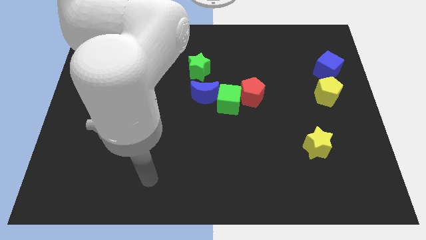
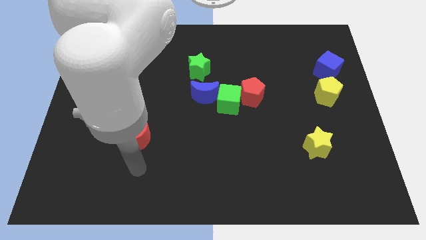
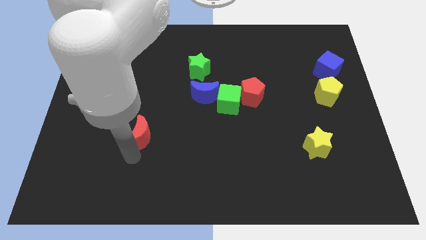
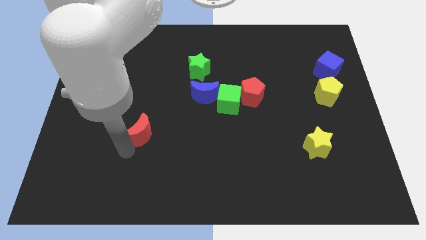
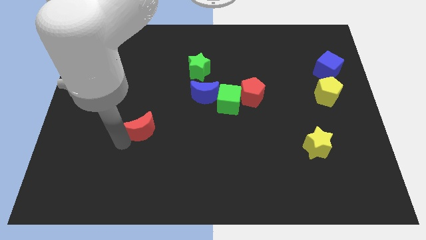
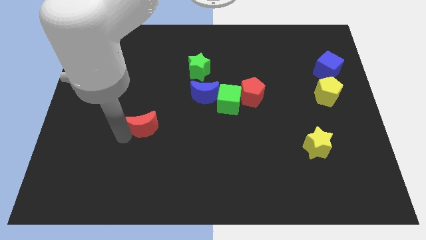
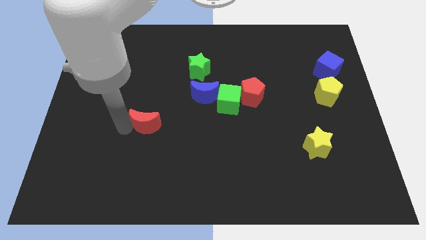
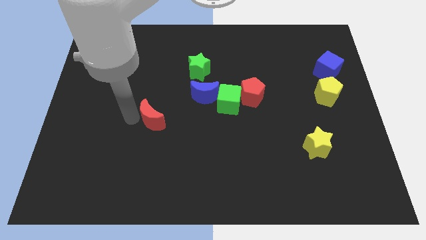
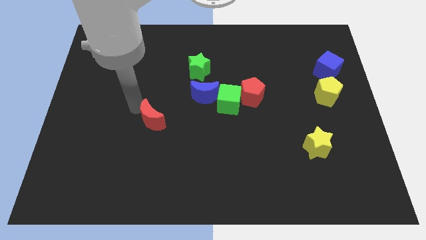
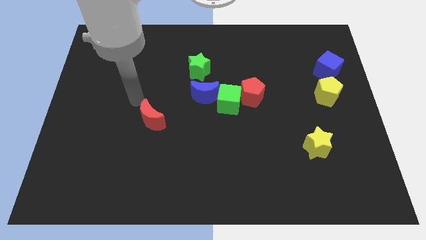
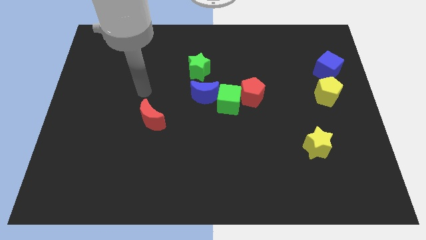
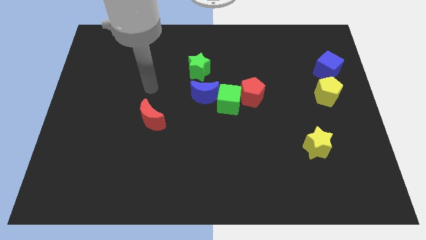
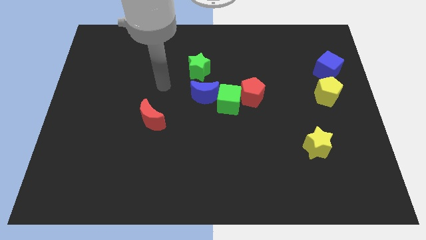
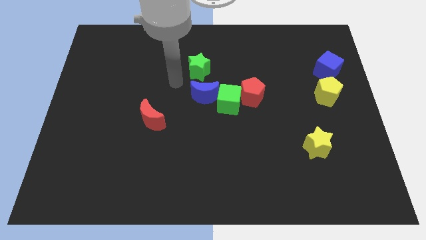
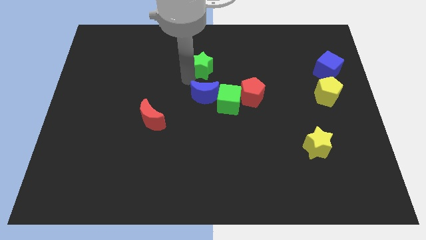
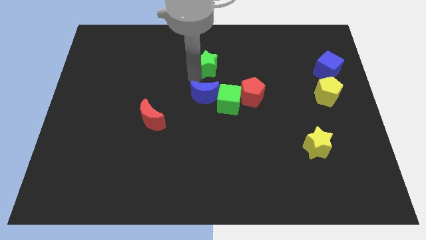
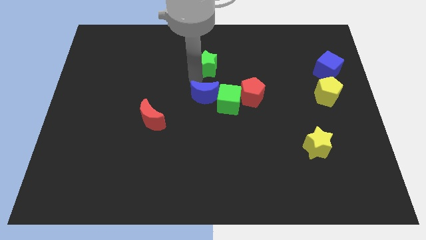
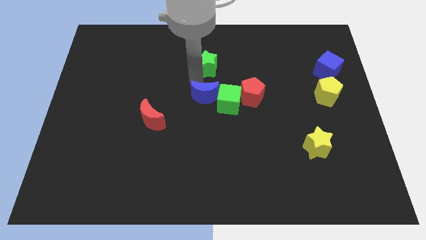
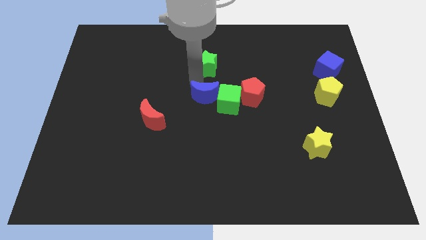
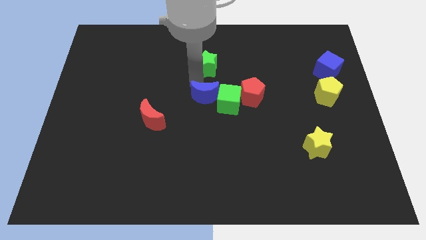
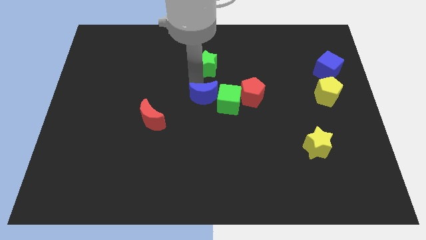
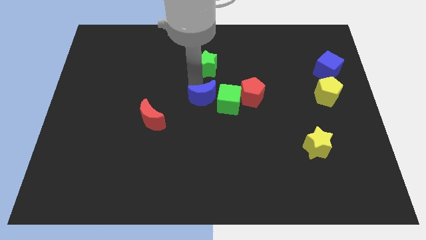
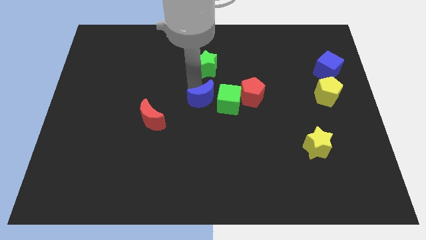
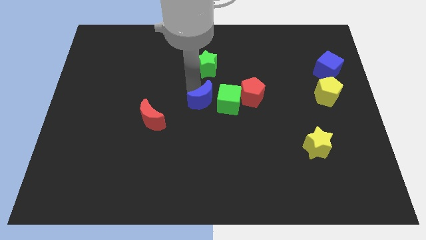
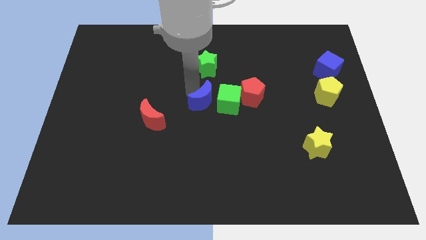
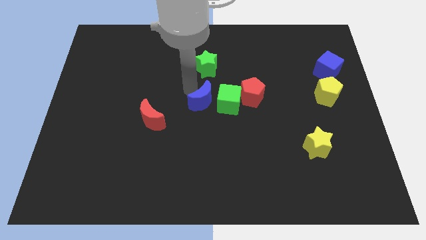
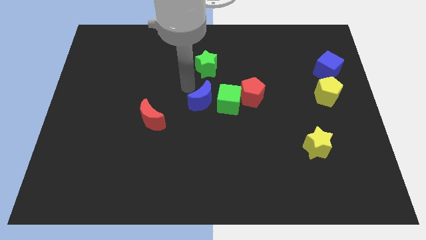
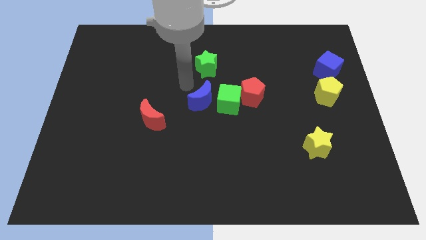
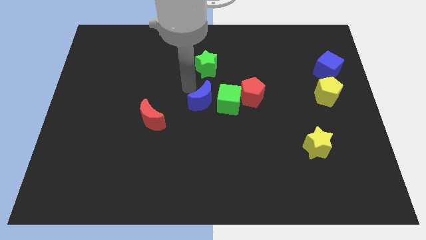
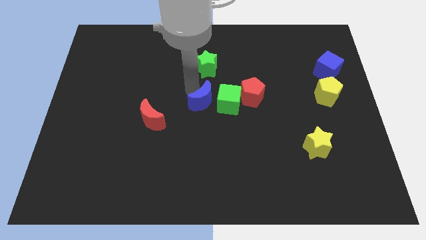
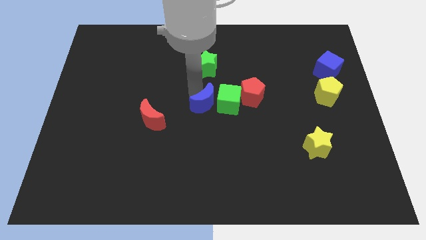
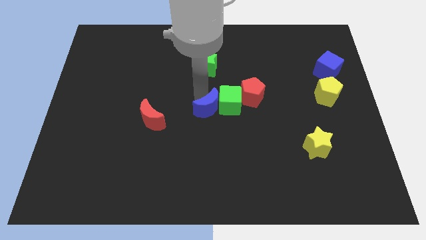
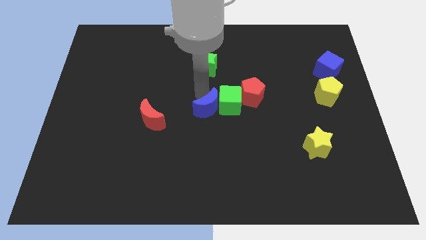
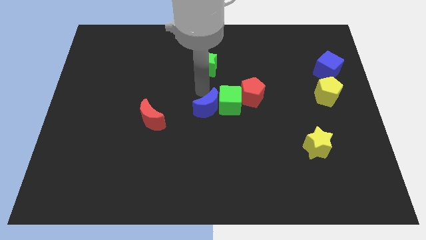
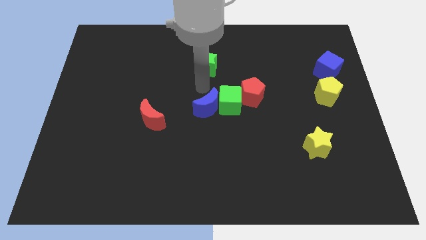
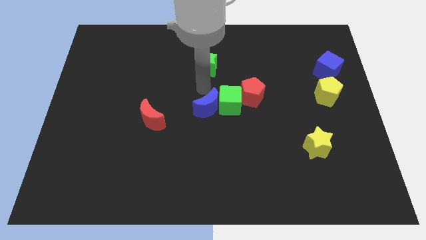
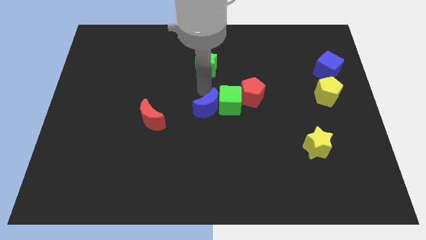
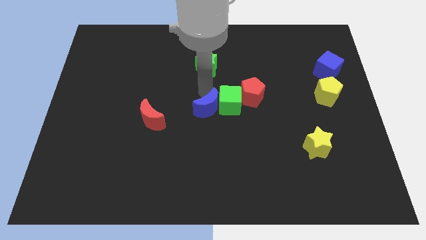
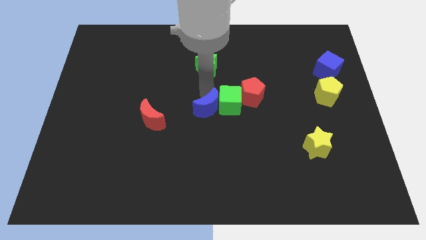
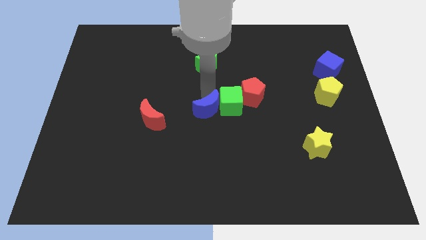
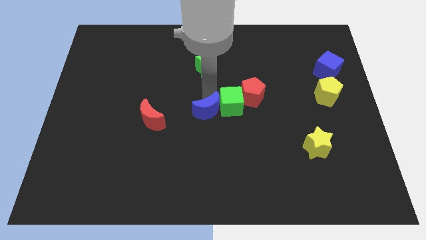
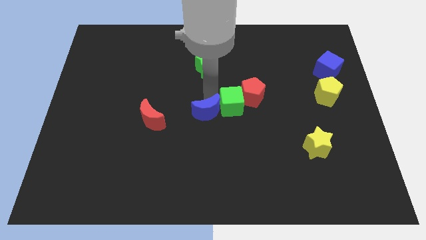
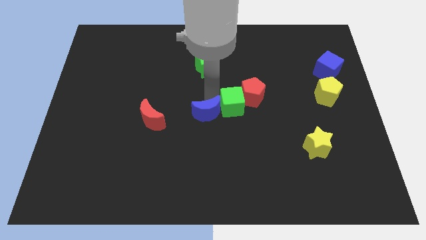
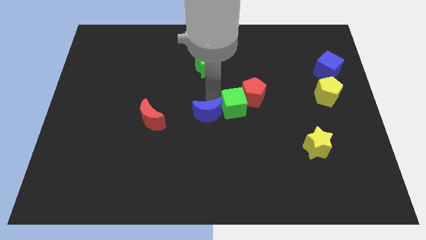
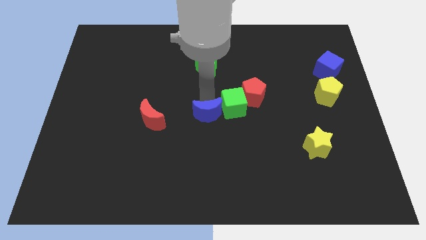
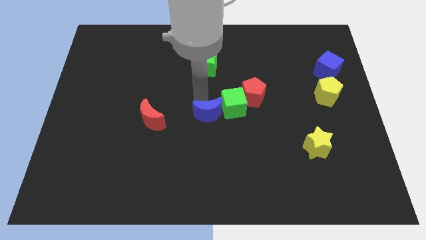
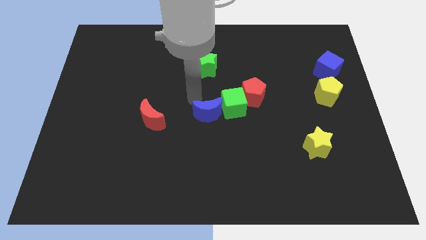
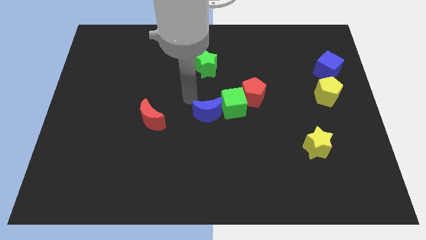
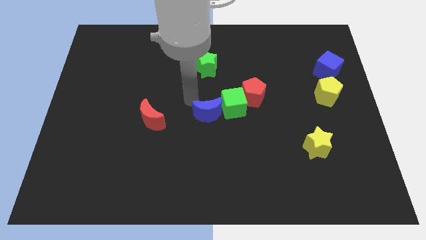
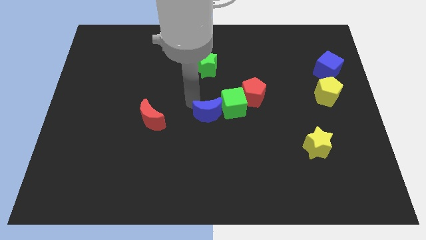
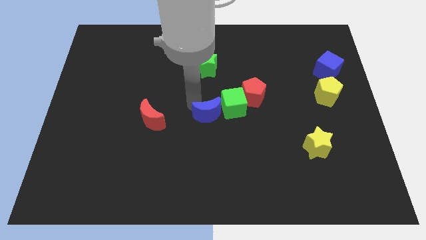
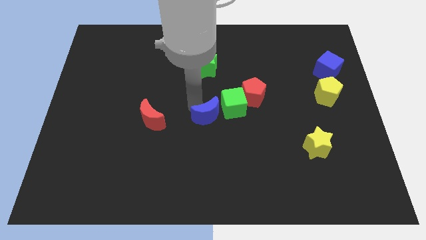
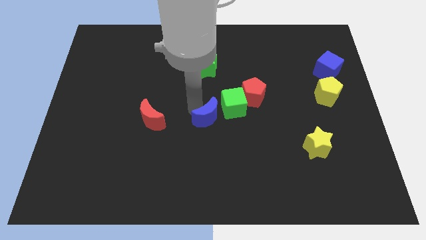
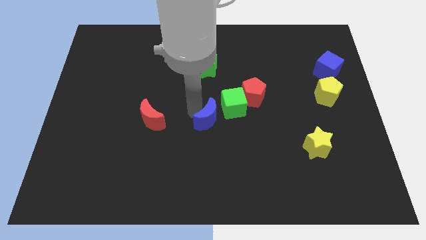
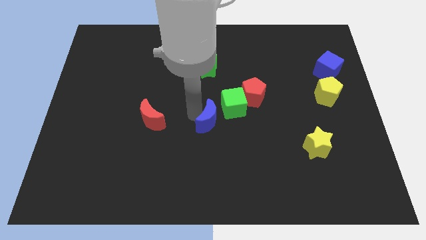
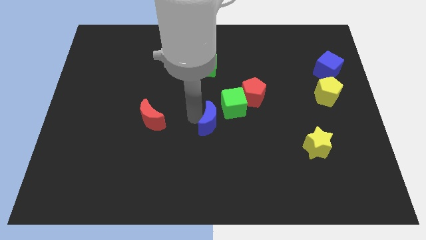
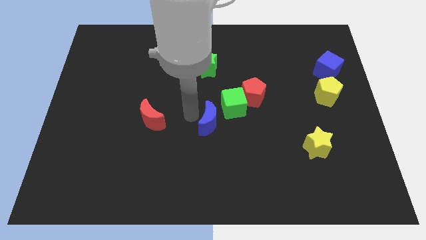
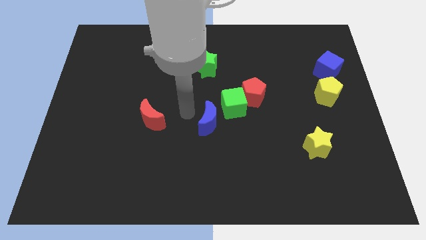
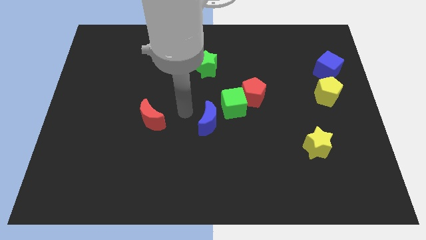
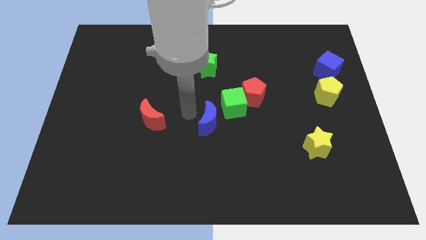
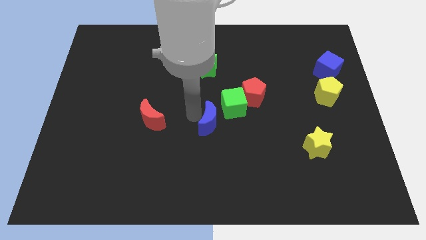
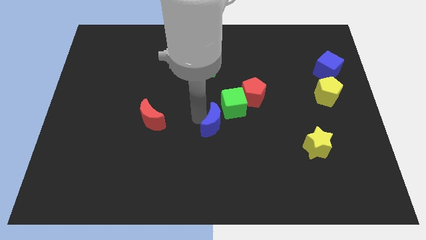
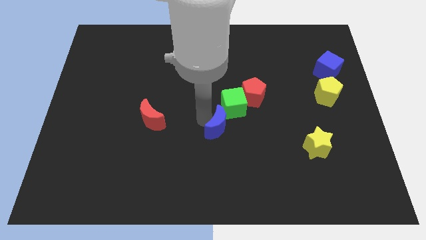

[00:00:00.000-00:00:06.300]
slightly slide the blue moon downwards and right

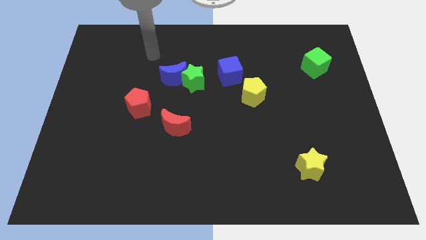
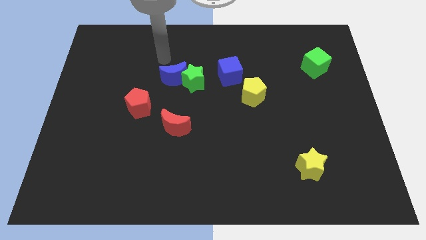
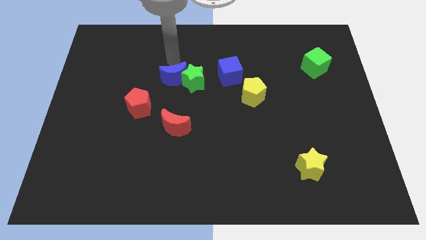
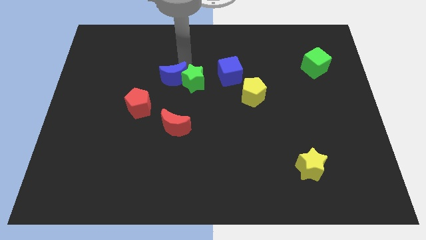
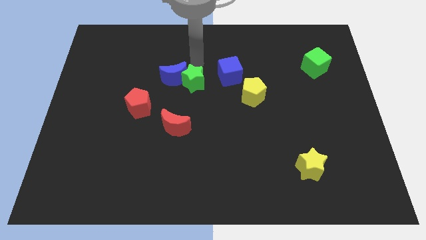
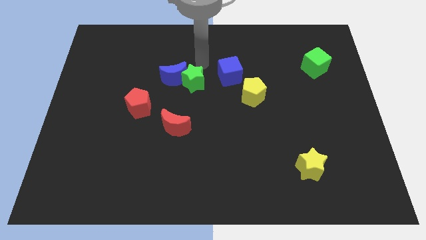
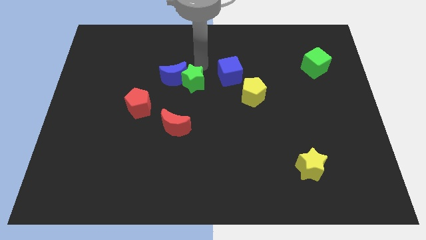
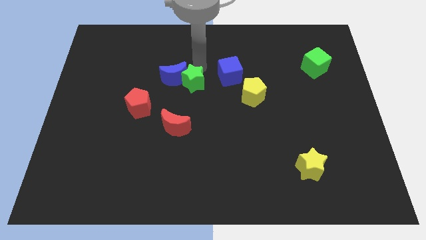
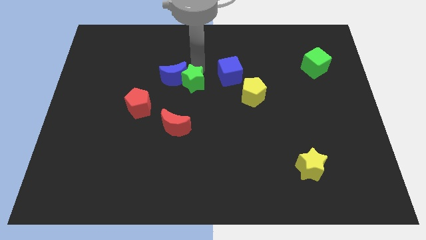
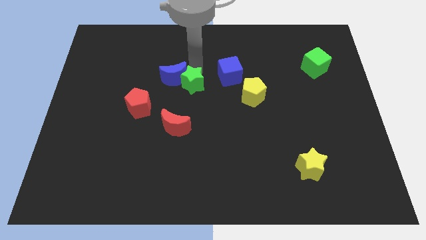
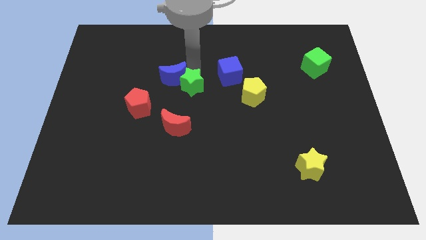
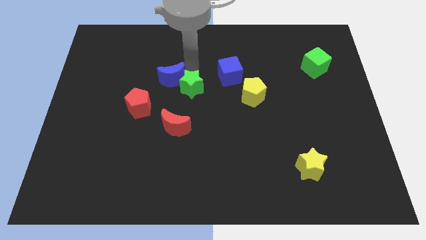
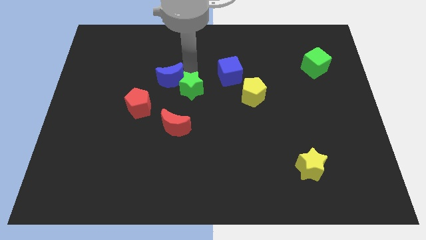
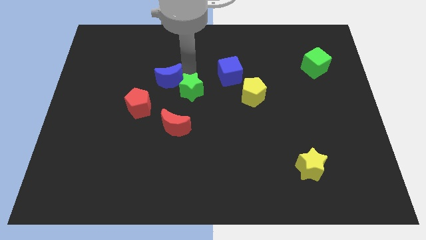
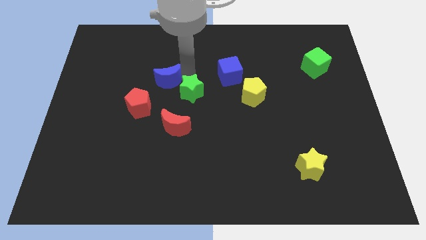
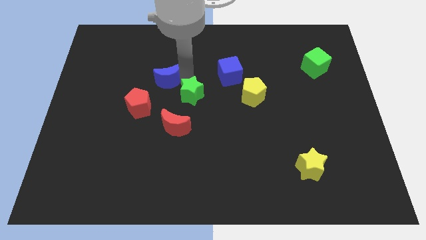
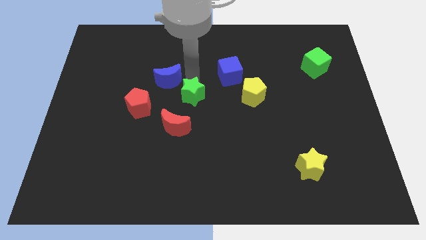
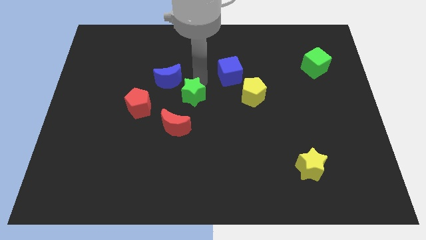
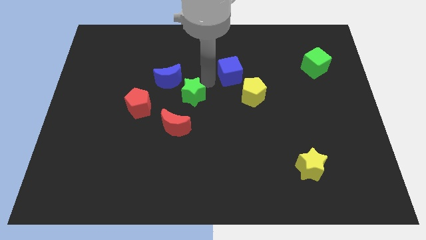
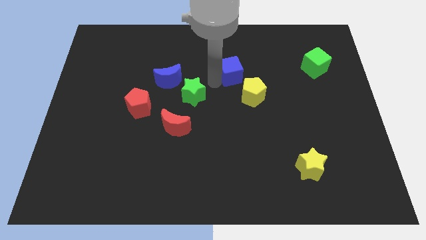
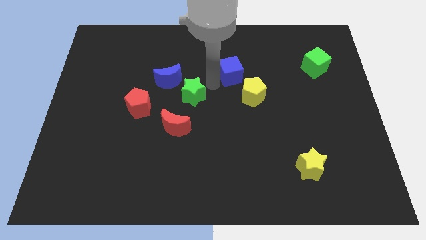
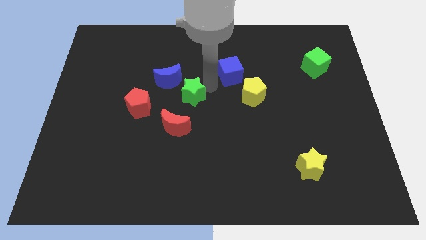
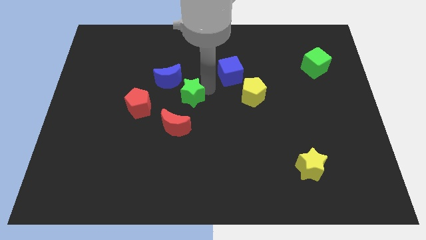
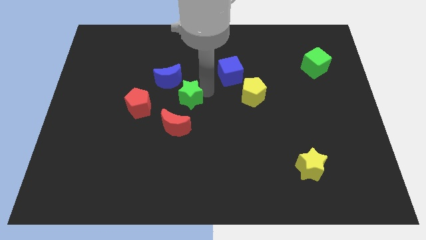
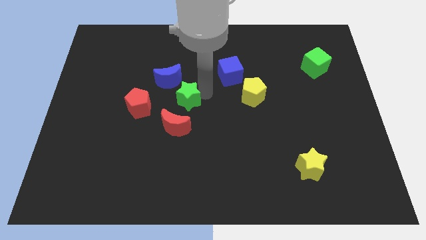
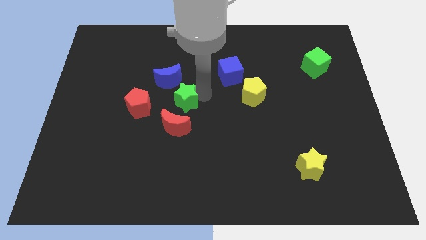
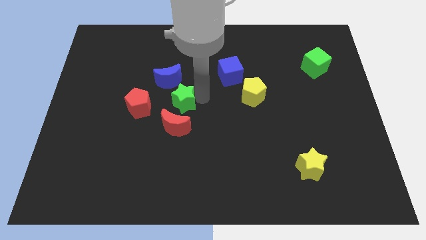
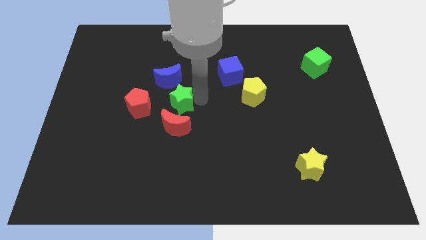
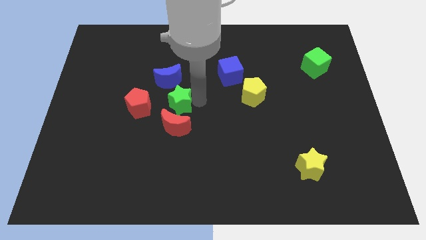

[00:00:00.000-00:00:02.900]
move the green star diagonally downwards and left somewhat
